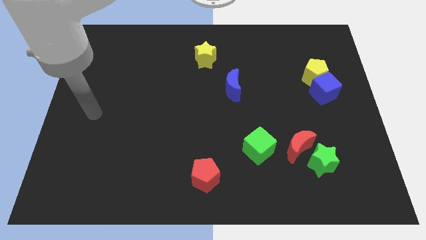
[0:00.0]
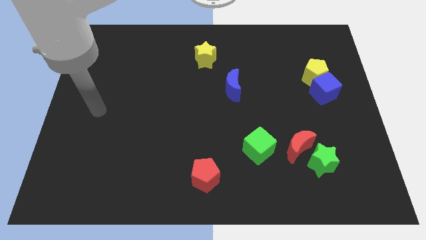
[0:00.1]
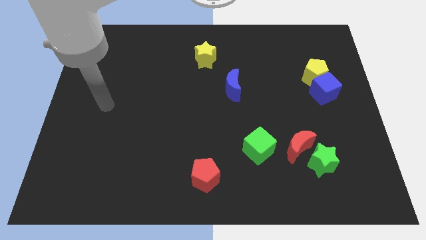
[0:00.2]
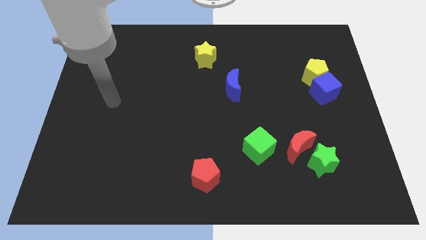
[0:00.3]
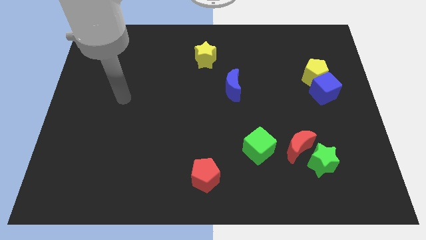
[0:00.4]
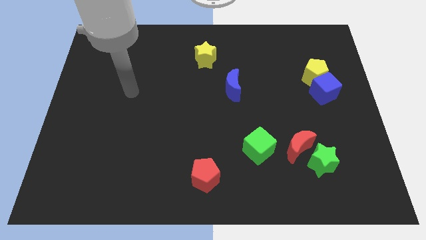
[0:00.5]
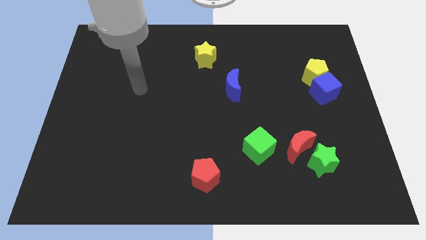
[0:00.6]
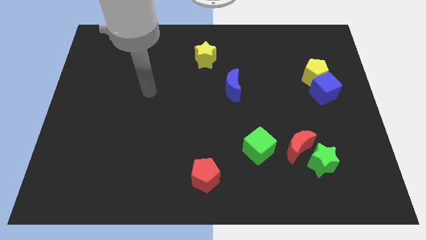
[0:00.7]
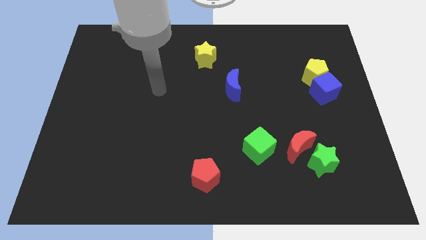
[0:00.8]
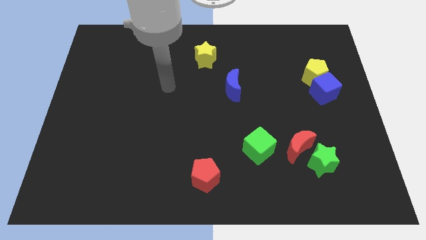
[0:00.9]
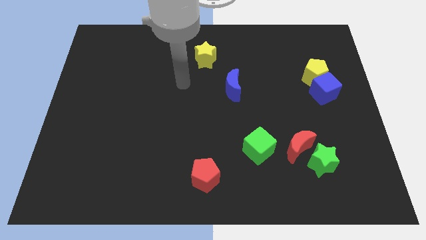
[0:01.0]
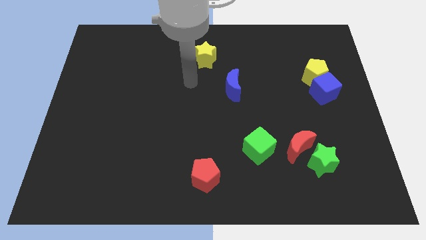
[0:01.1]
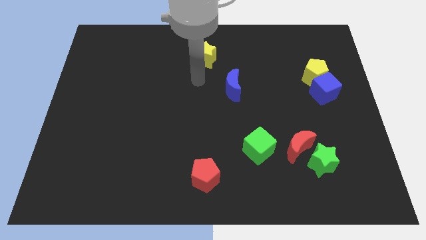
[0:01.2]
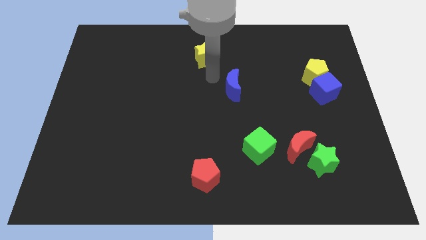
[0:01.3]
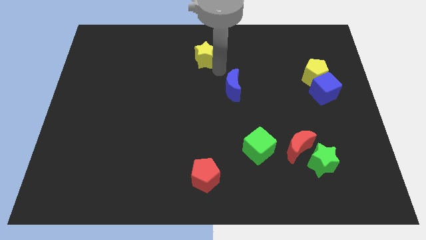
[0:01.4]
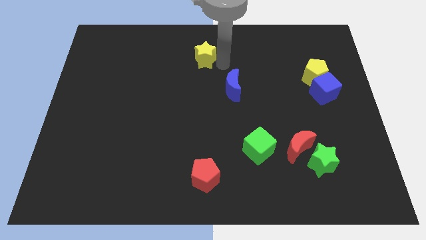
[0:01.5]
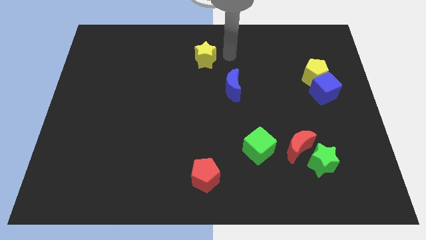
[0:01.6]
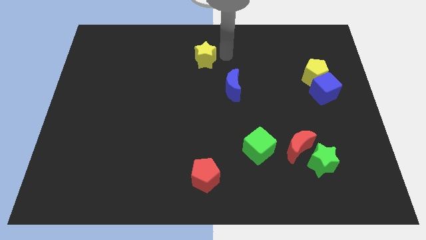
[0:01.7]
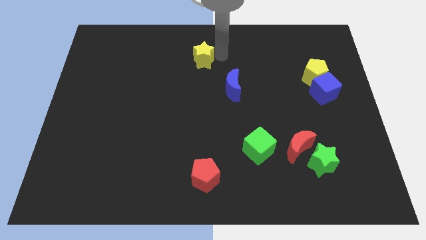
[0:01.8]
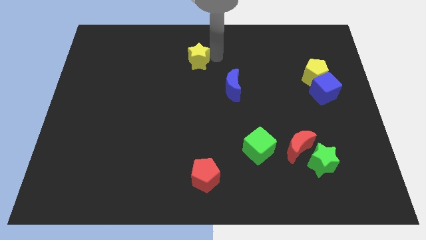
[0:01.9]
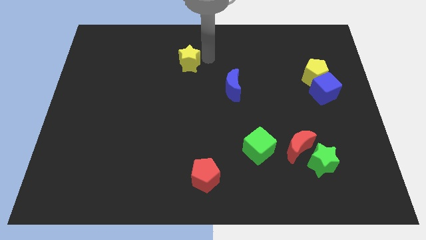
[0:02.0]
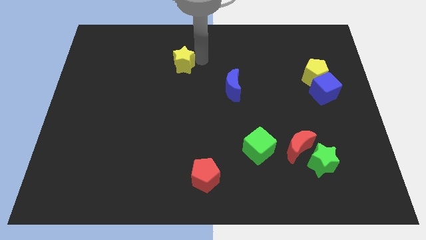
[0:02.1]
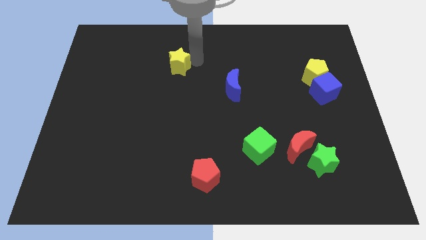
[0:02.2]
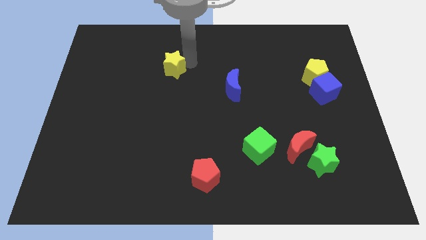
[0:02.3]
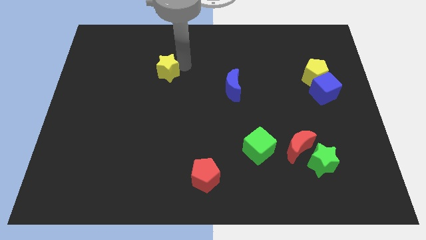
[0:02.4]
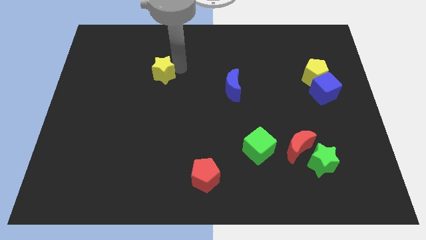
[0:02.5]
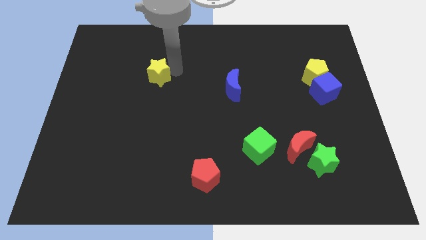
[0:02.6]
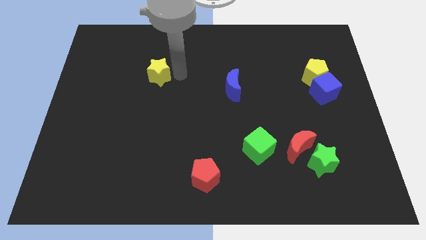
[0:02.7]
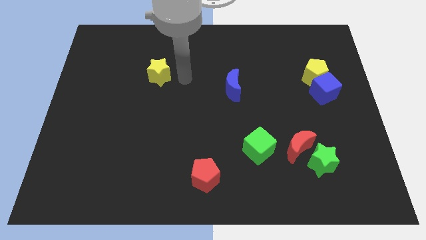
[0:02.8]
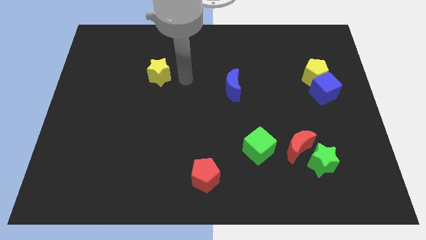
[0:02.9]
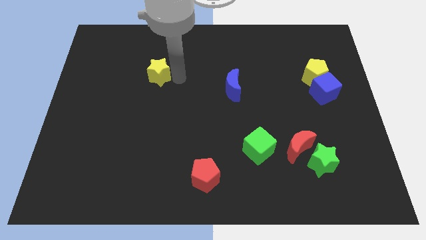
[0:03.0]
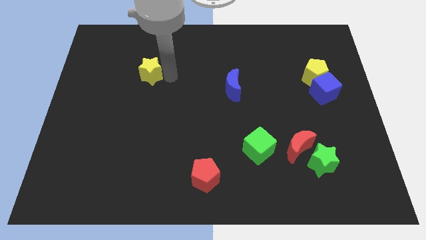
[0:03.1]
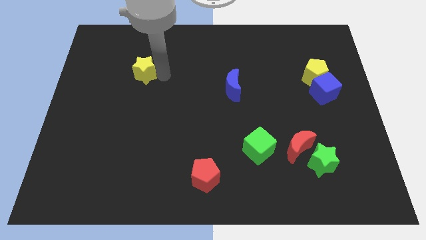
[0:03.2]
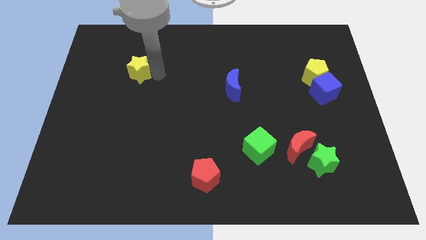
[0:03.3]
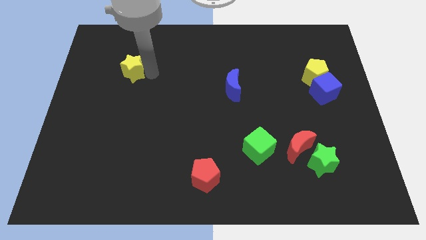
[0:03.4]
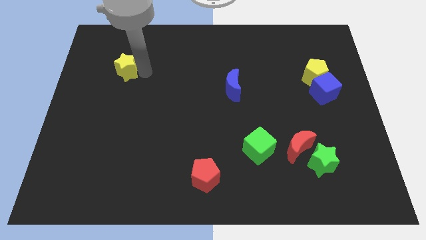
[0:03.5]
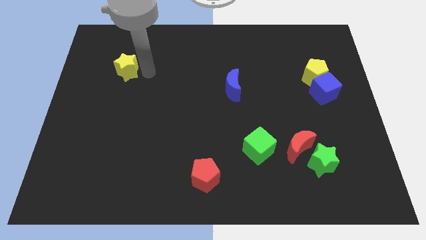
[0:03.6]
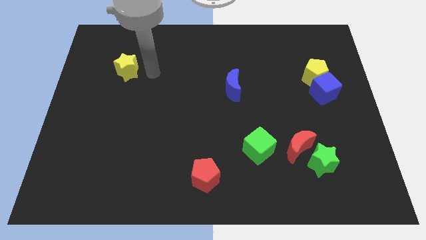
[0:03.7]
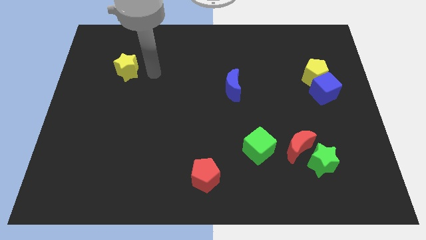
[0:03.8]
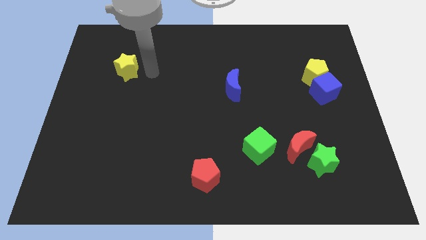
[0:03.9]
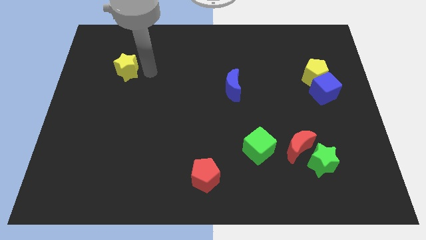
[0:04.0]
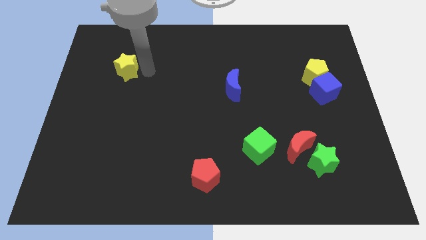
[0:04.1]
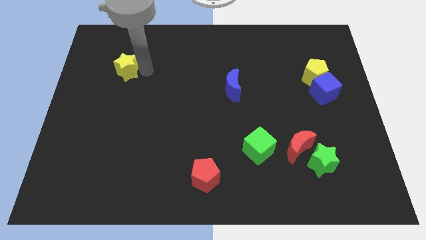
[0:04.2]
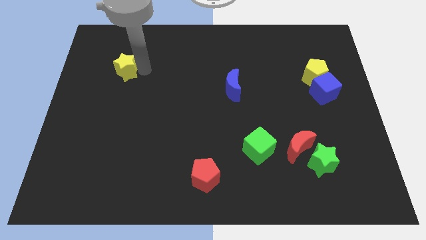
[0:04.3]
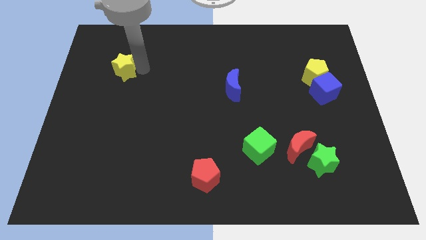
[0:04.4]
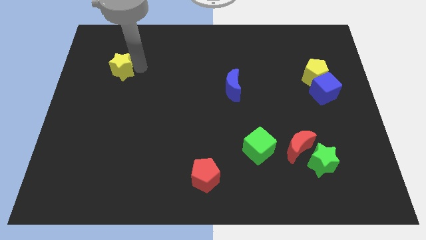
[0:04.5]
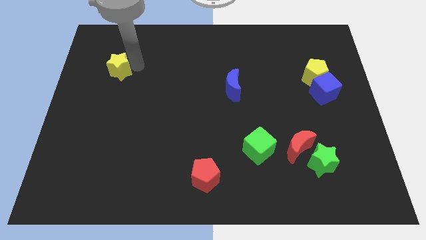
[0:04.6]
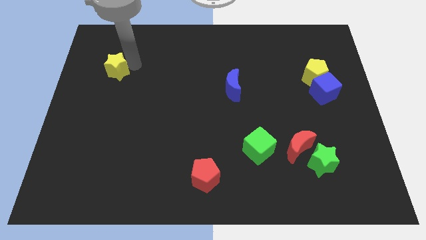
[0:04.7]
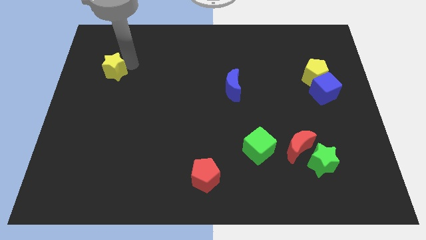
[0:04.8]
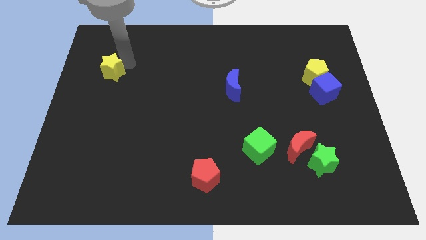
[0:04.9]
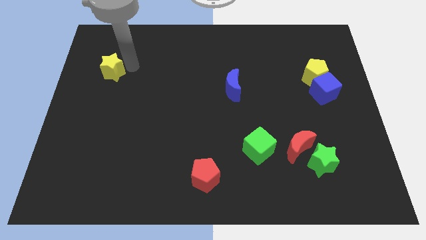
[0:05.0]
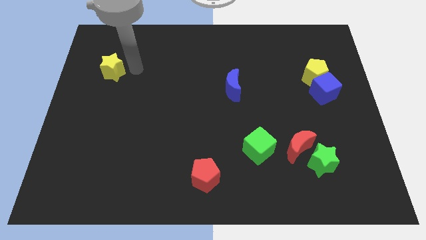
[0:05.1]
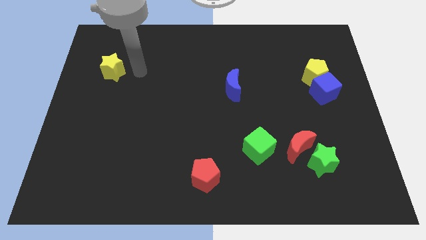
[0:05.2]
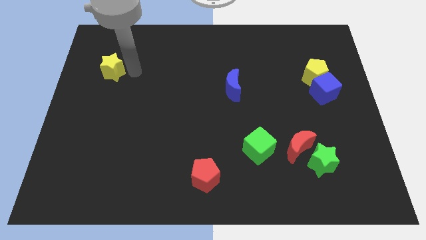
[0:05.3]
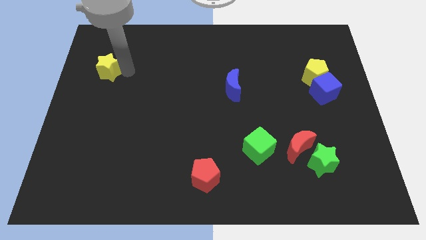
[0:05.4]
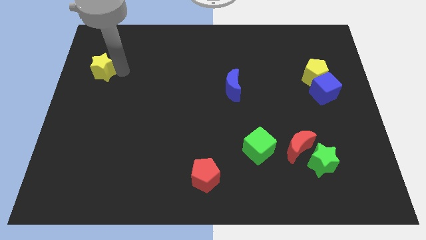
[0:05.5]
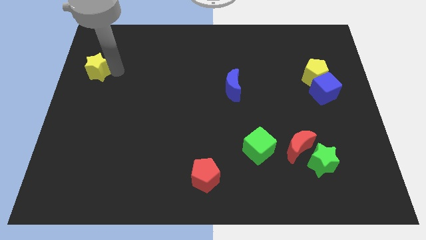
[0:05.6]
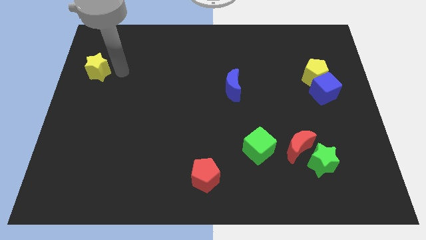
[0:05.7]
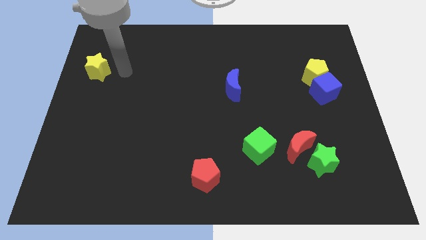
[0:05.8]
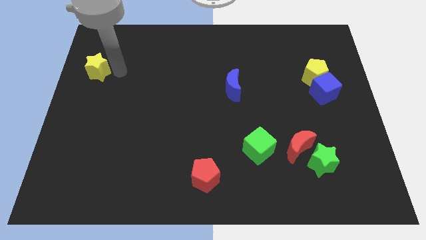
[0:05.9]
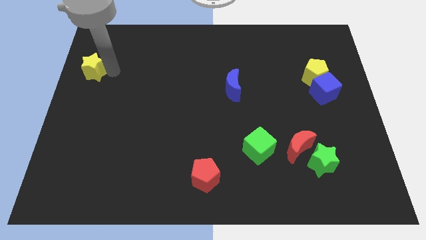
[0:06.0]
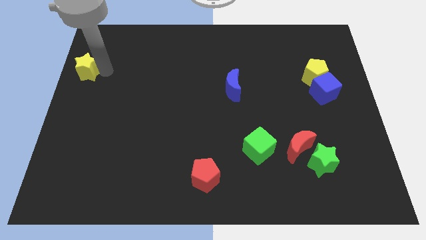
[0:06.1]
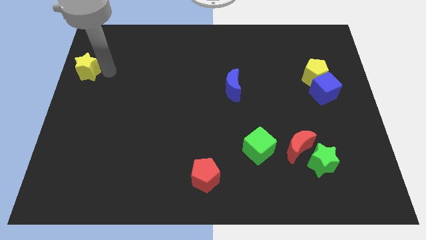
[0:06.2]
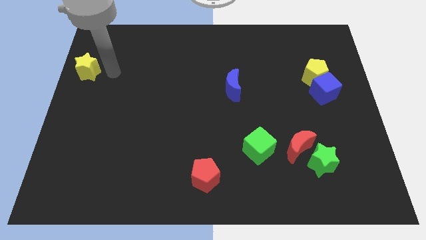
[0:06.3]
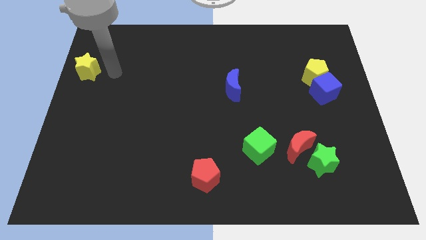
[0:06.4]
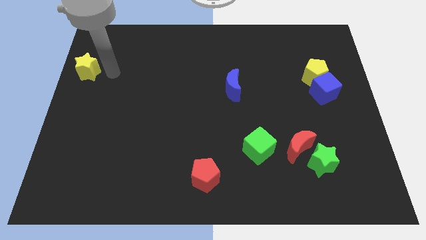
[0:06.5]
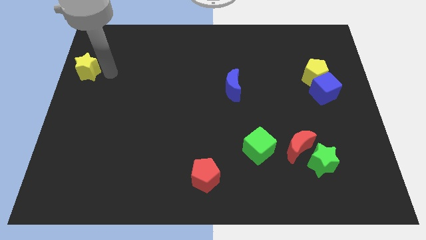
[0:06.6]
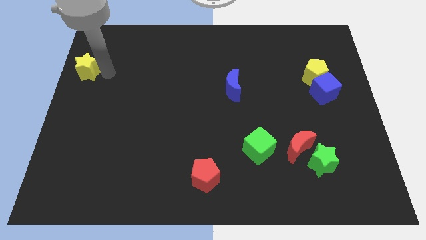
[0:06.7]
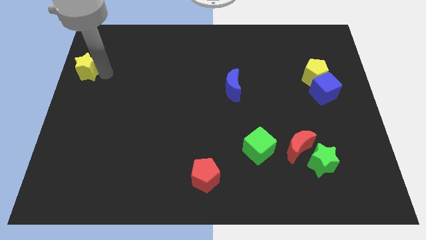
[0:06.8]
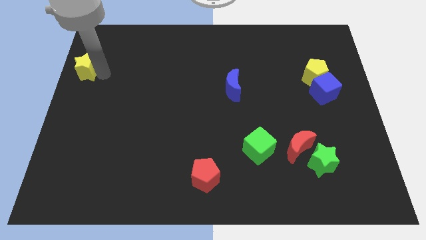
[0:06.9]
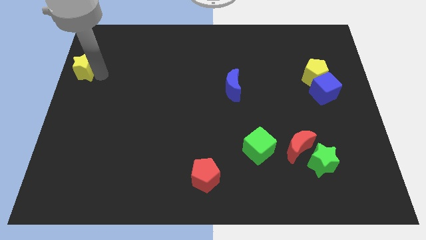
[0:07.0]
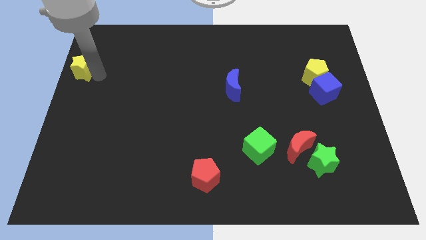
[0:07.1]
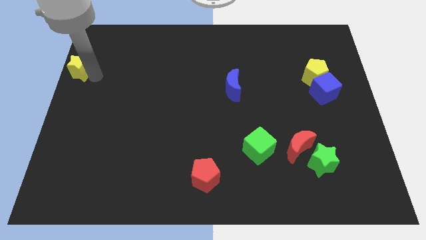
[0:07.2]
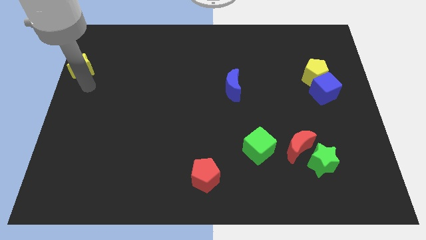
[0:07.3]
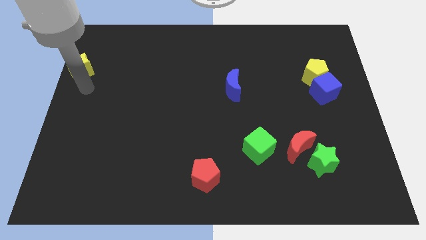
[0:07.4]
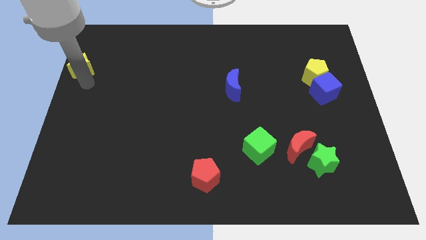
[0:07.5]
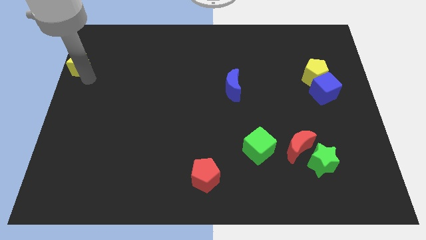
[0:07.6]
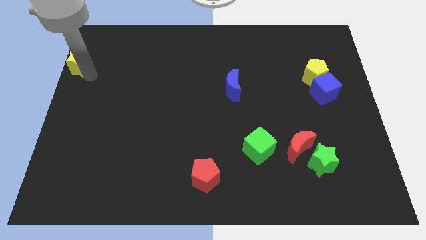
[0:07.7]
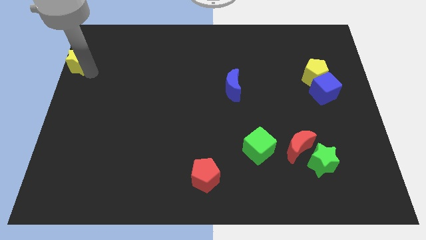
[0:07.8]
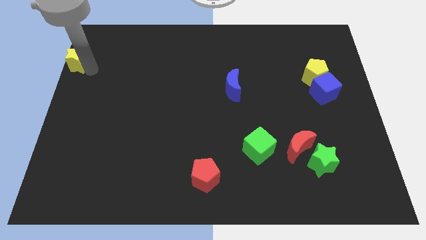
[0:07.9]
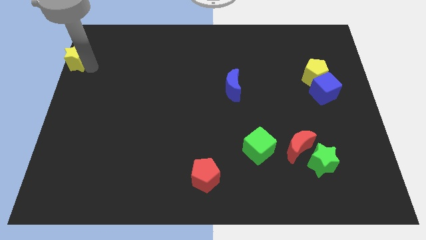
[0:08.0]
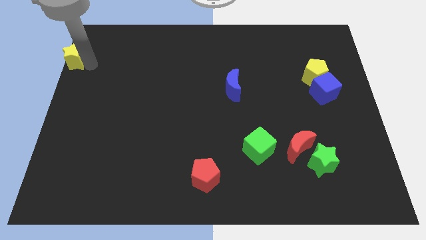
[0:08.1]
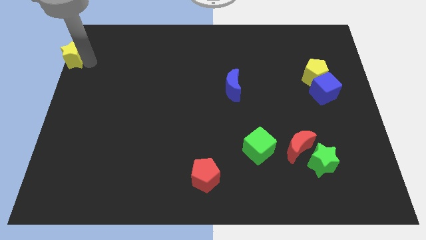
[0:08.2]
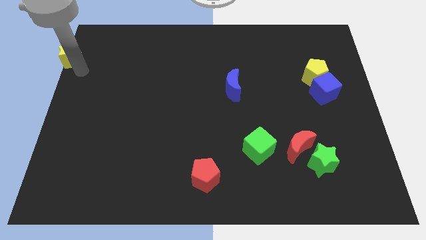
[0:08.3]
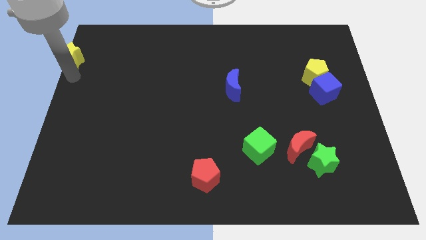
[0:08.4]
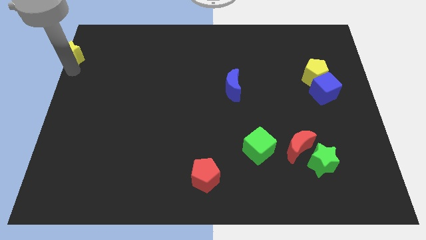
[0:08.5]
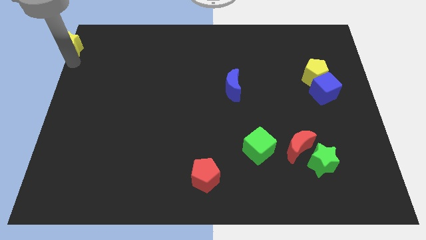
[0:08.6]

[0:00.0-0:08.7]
slide the yellow star to the upper left corner
